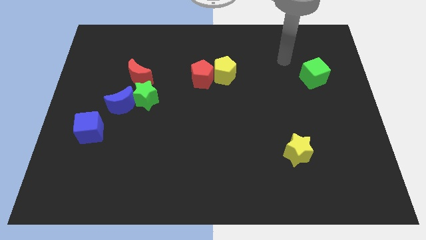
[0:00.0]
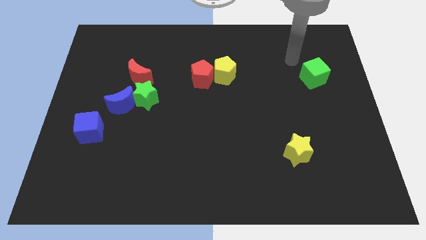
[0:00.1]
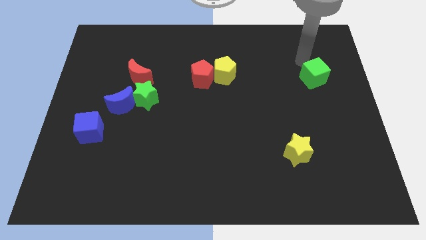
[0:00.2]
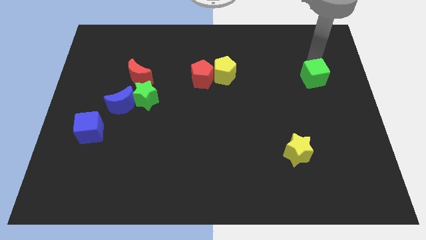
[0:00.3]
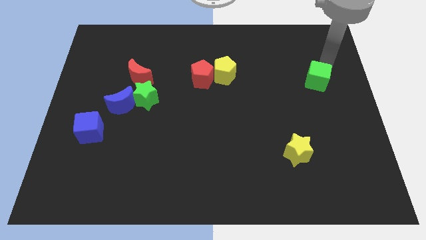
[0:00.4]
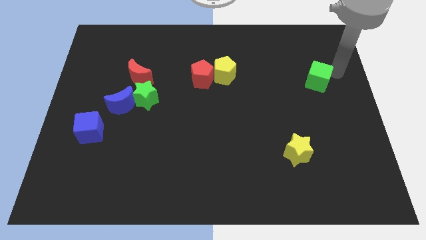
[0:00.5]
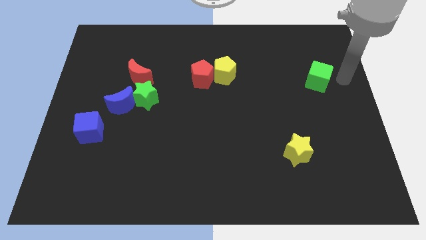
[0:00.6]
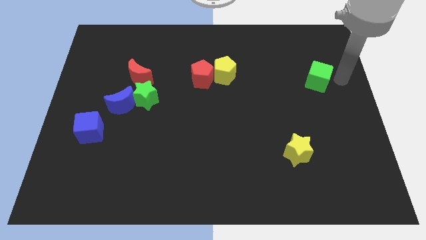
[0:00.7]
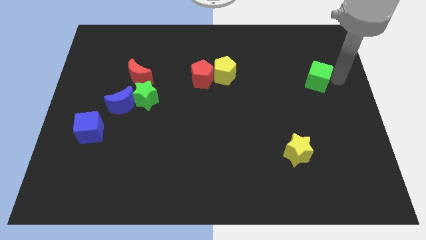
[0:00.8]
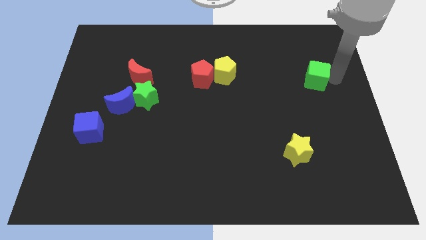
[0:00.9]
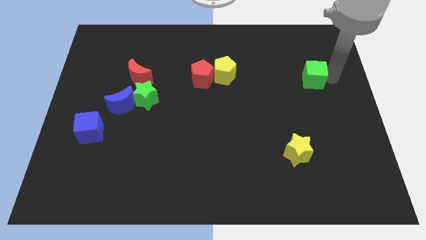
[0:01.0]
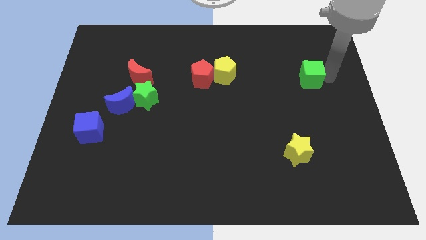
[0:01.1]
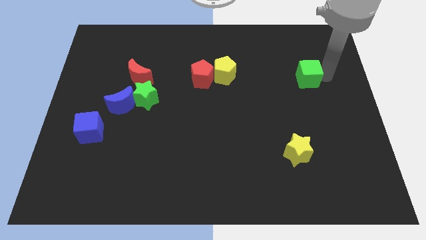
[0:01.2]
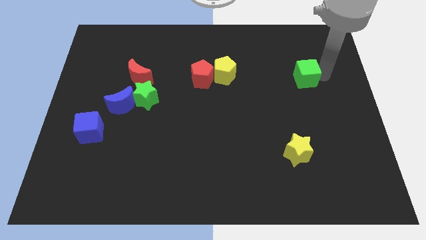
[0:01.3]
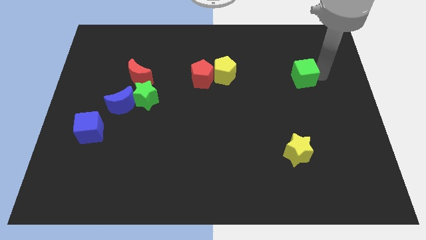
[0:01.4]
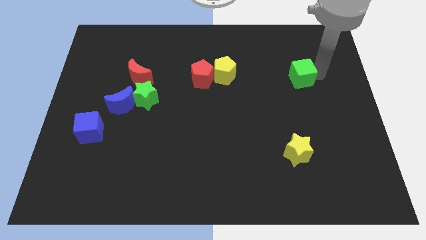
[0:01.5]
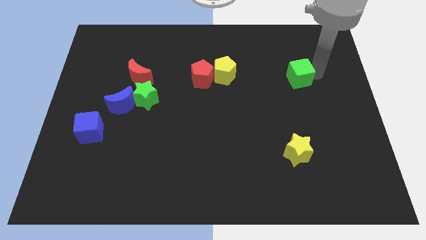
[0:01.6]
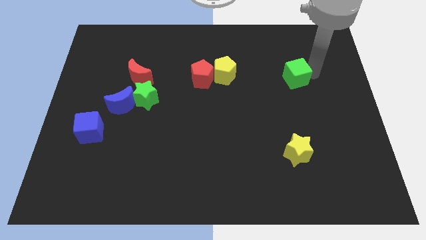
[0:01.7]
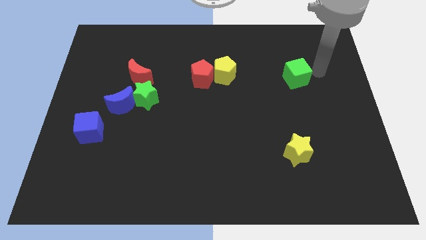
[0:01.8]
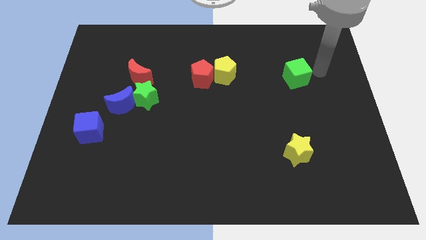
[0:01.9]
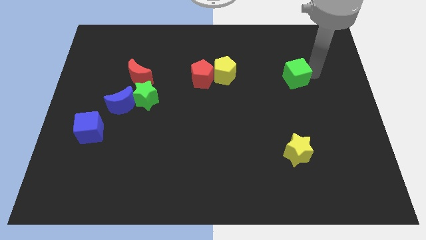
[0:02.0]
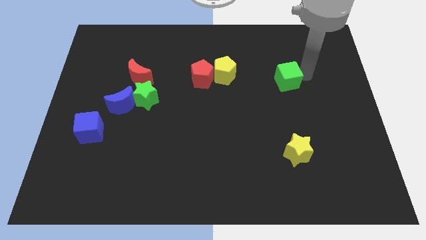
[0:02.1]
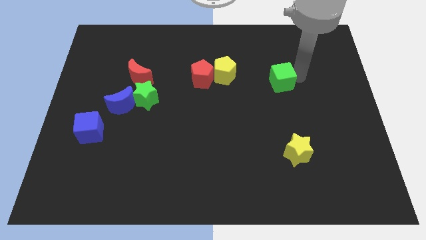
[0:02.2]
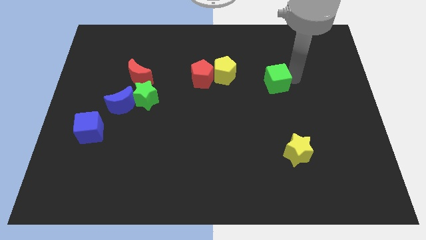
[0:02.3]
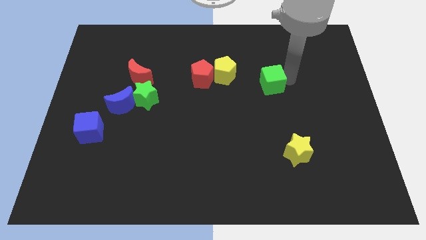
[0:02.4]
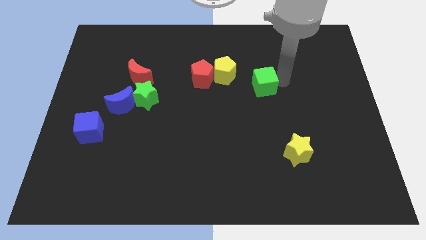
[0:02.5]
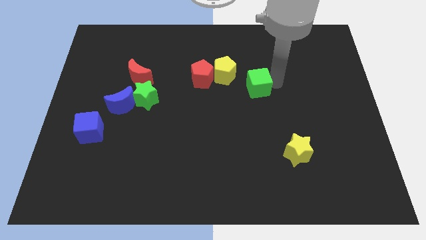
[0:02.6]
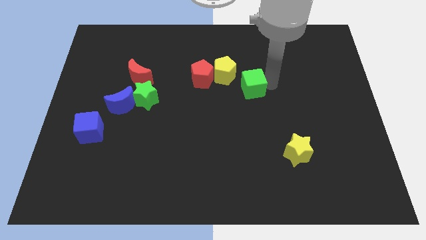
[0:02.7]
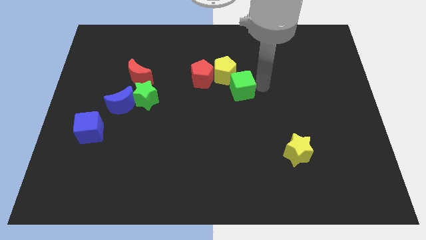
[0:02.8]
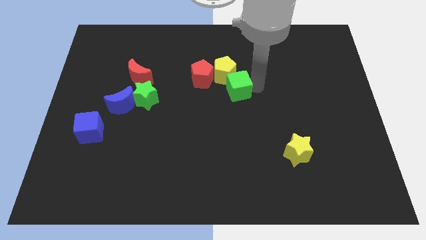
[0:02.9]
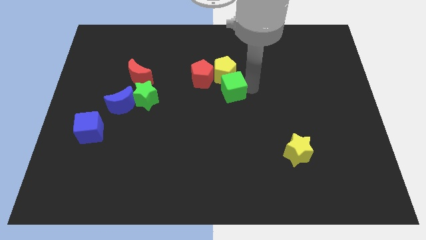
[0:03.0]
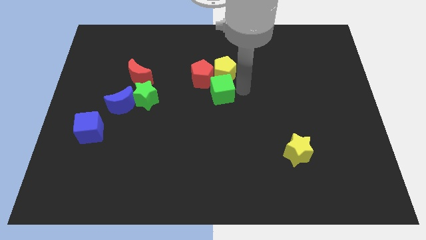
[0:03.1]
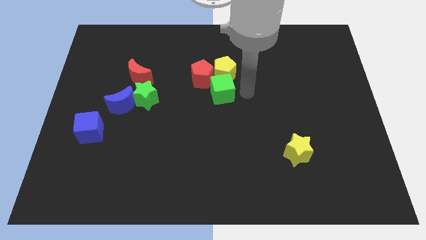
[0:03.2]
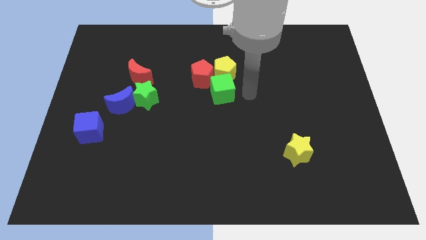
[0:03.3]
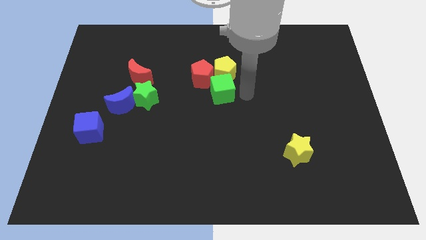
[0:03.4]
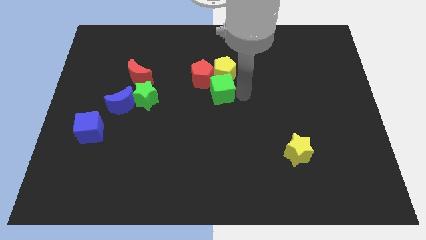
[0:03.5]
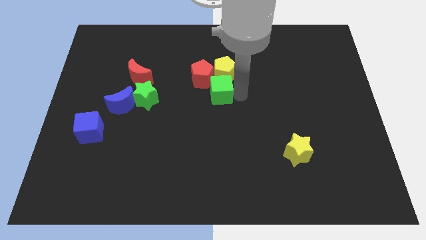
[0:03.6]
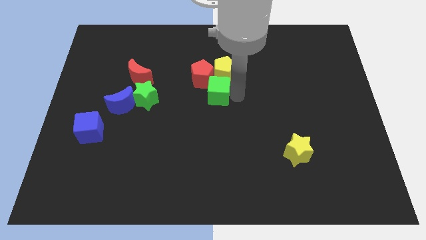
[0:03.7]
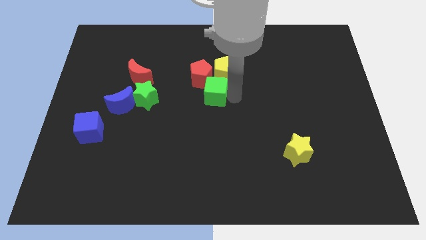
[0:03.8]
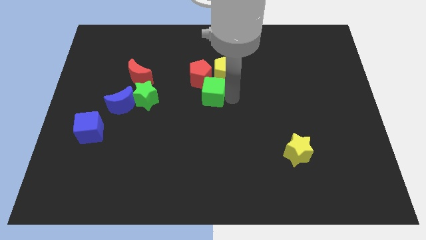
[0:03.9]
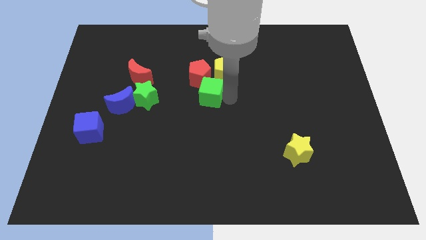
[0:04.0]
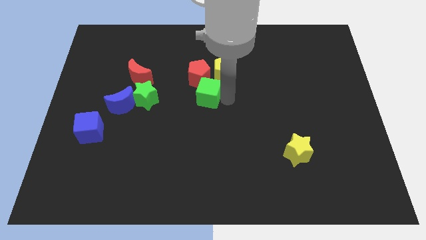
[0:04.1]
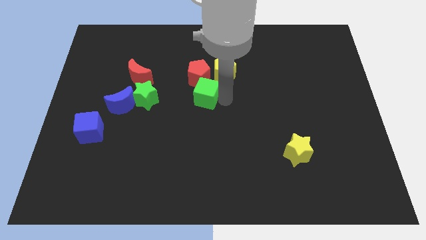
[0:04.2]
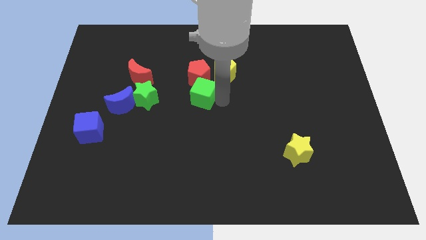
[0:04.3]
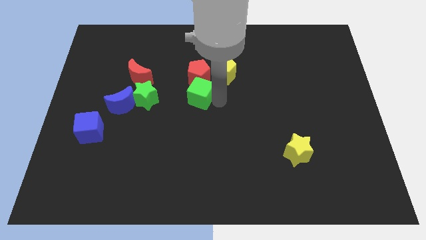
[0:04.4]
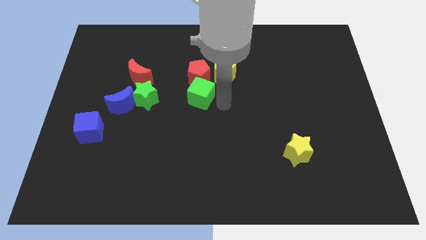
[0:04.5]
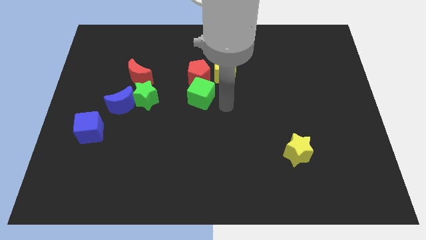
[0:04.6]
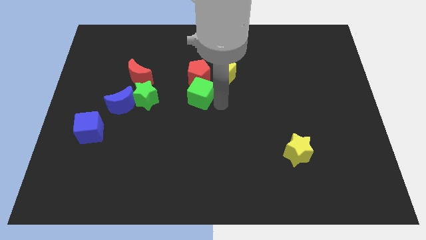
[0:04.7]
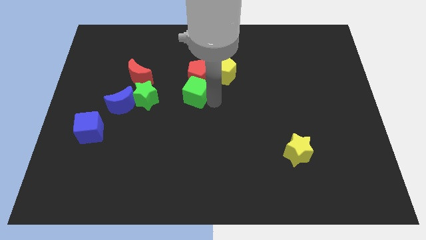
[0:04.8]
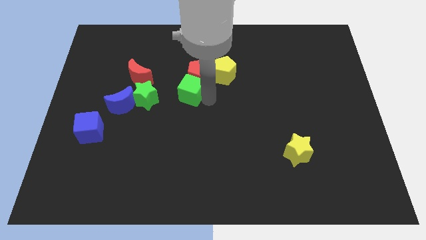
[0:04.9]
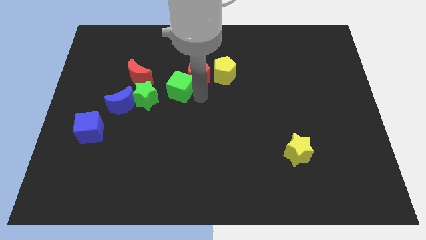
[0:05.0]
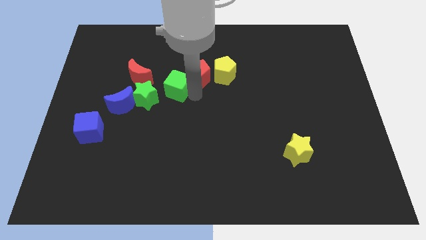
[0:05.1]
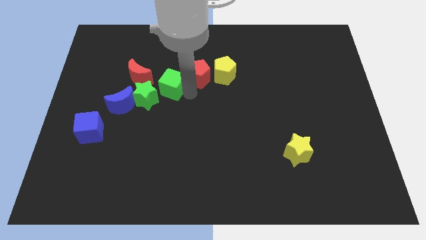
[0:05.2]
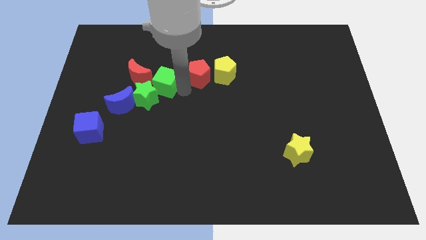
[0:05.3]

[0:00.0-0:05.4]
slide the green cube to the top right of the blue moon

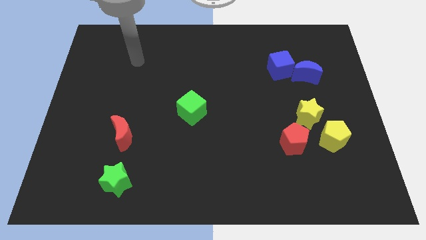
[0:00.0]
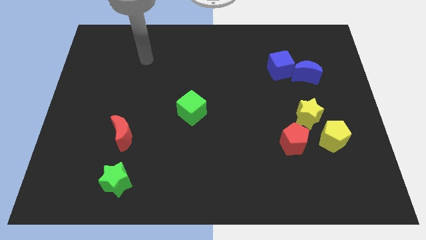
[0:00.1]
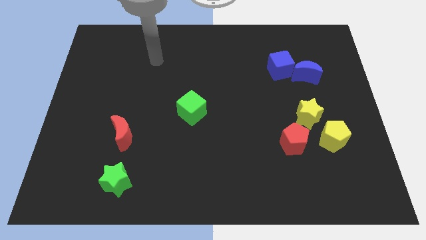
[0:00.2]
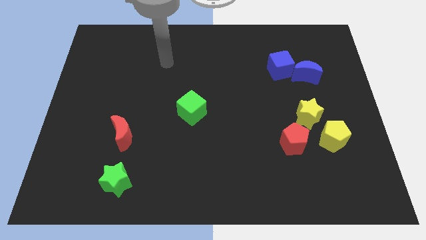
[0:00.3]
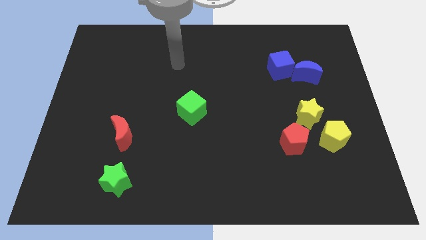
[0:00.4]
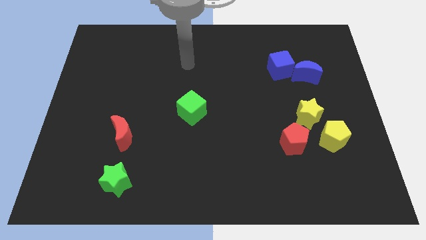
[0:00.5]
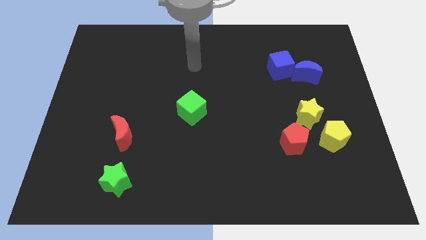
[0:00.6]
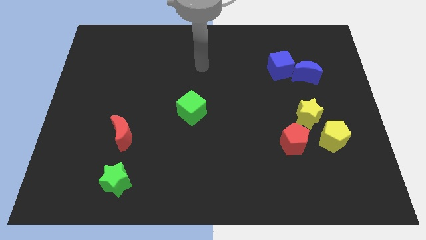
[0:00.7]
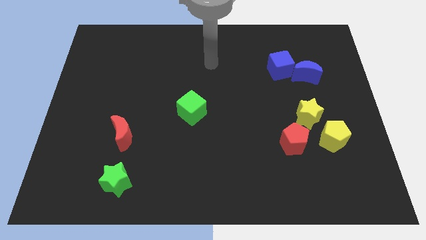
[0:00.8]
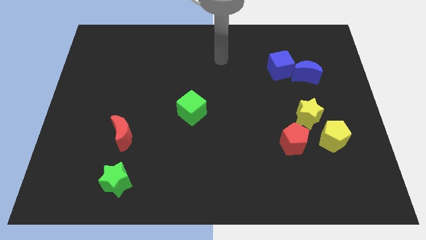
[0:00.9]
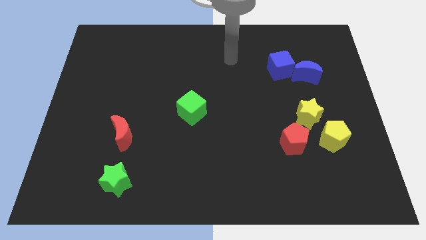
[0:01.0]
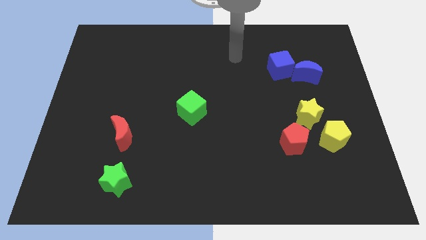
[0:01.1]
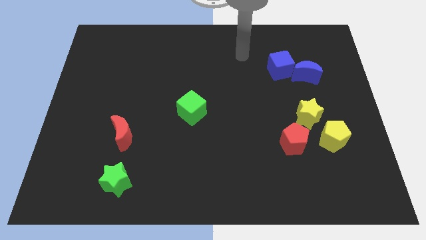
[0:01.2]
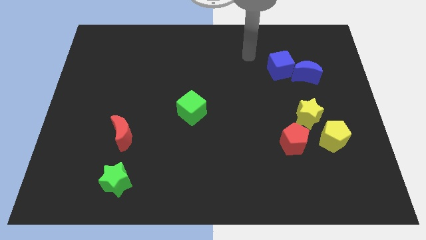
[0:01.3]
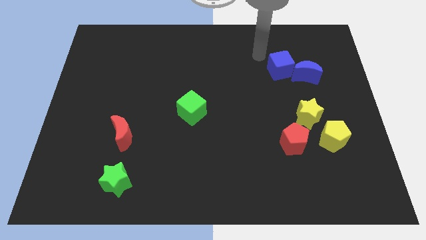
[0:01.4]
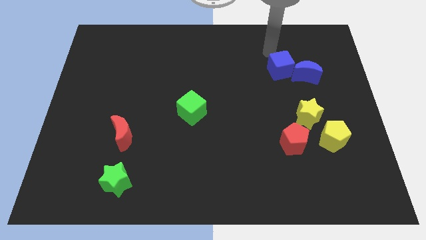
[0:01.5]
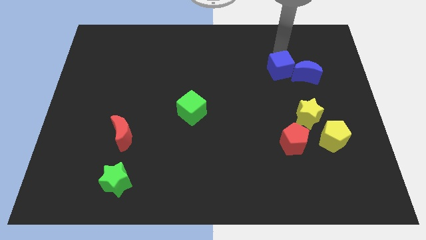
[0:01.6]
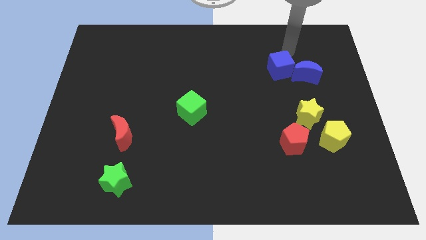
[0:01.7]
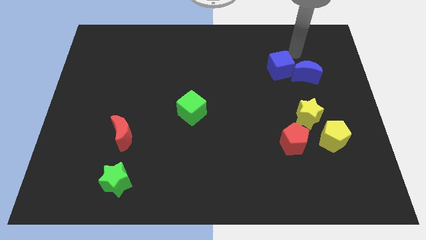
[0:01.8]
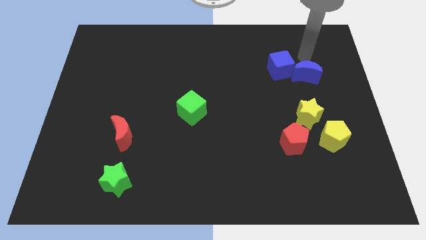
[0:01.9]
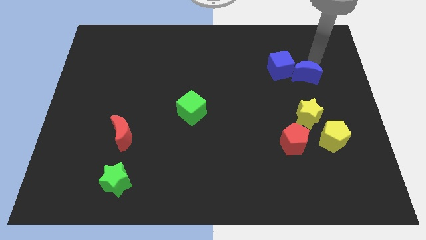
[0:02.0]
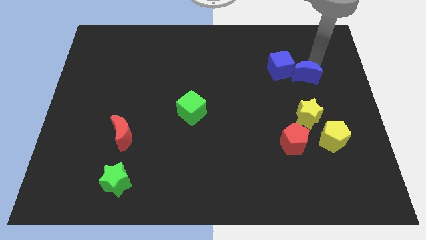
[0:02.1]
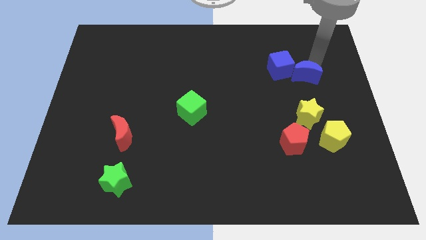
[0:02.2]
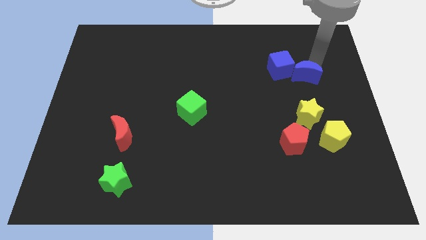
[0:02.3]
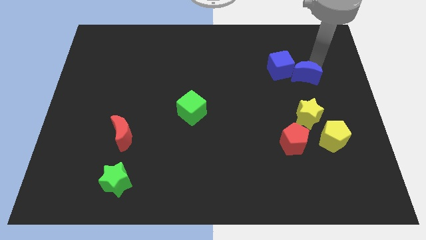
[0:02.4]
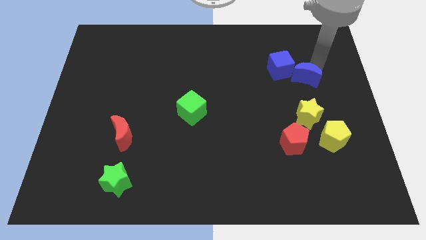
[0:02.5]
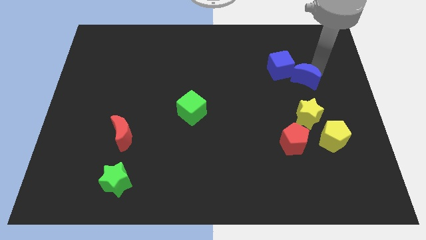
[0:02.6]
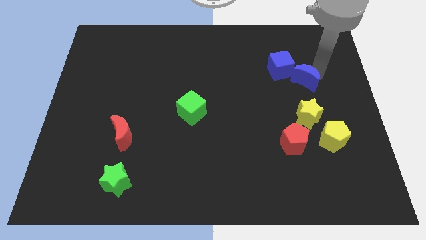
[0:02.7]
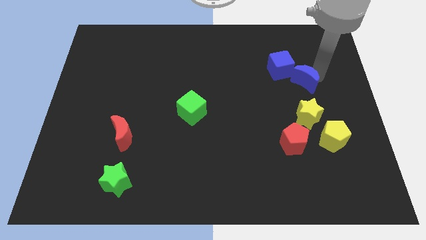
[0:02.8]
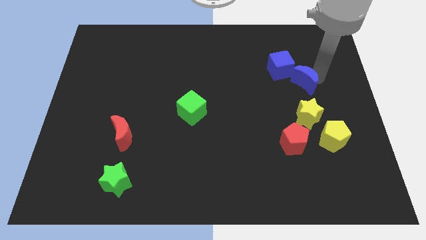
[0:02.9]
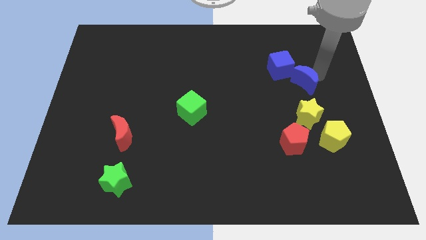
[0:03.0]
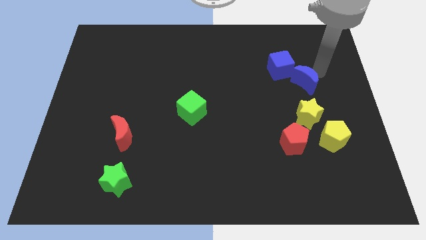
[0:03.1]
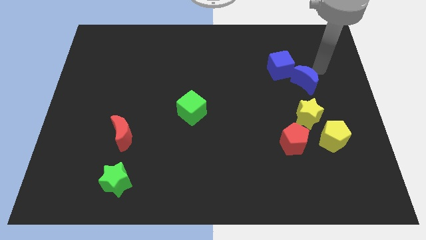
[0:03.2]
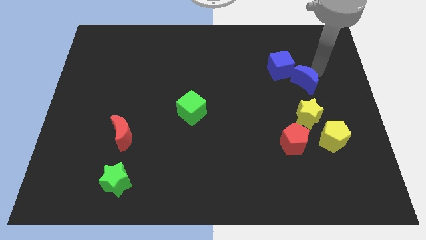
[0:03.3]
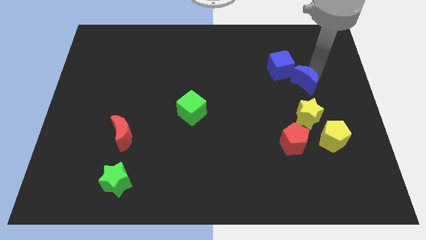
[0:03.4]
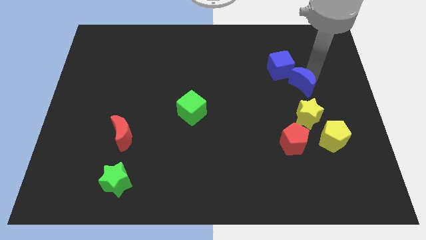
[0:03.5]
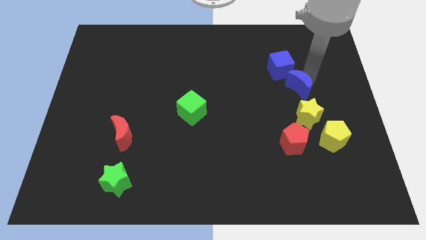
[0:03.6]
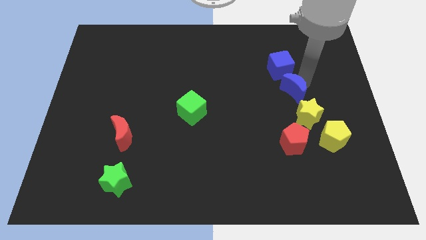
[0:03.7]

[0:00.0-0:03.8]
push the blue moon to the top of the red pentagon
